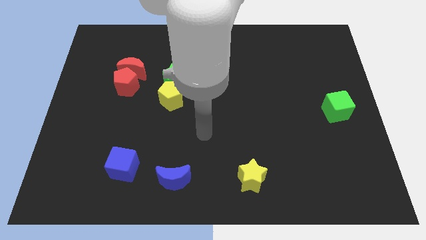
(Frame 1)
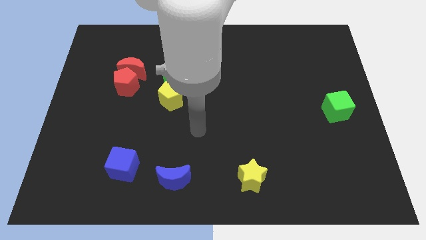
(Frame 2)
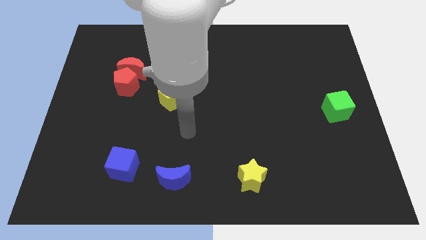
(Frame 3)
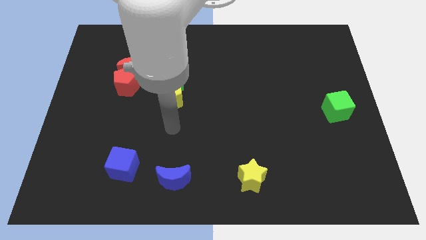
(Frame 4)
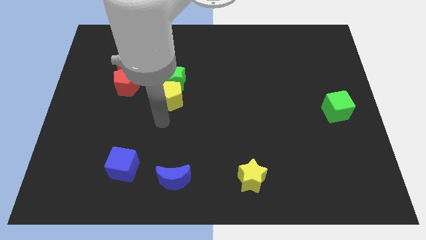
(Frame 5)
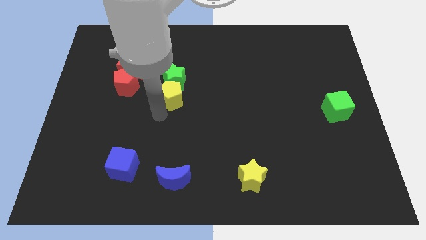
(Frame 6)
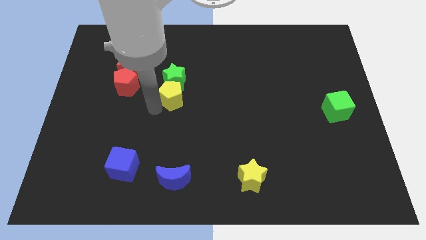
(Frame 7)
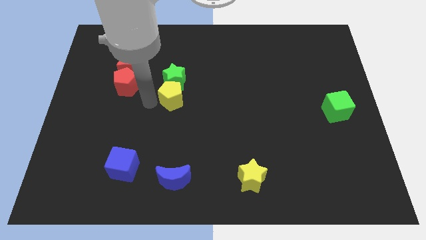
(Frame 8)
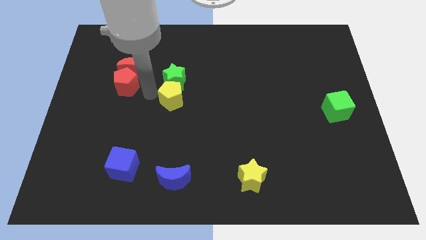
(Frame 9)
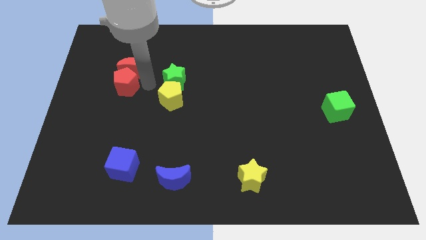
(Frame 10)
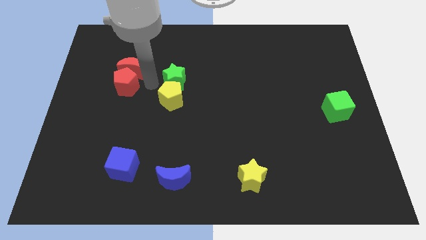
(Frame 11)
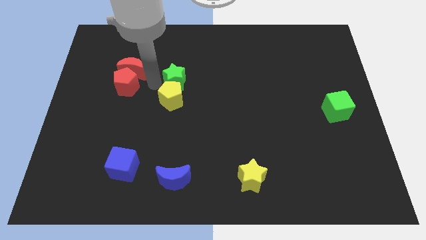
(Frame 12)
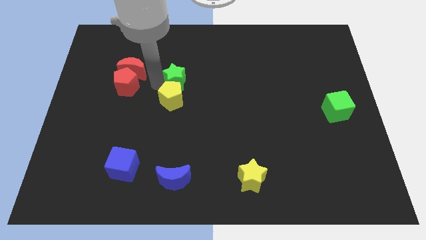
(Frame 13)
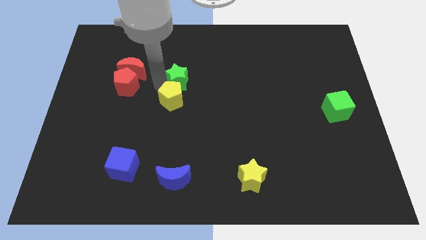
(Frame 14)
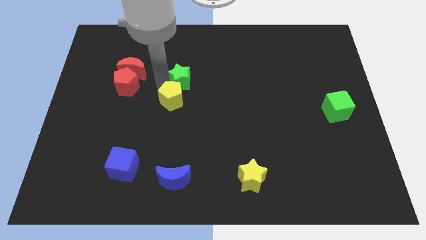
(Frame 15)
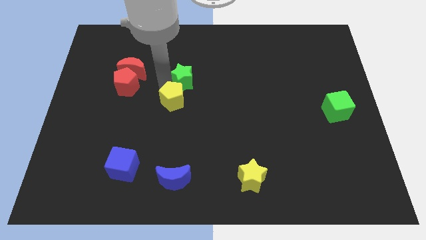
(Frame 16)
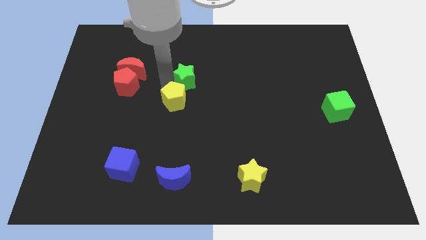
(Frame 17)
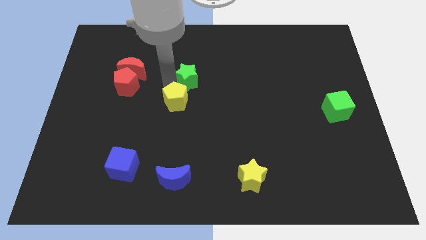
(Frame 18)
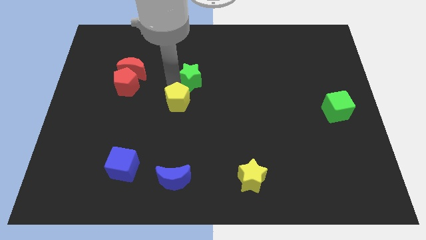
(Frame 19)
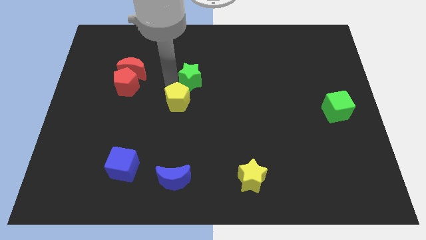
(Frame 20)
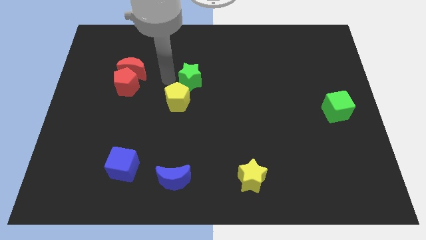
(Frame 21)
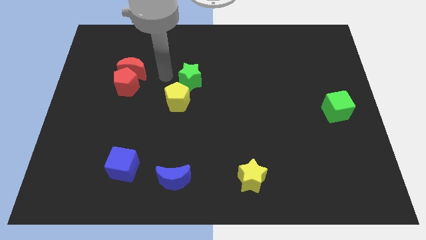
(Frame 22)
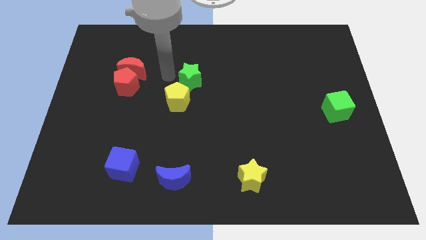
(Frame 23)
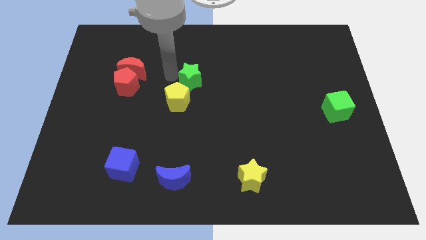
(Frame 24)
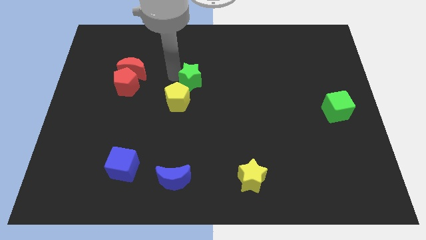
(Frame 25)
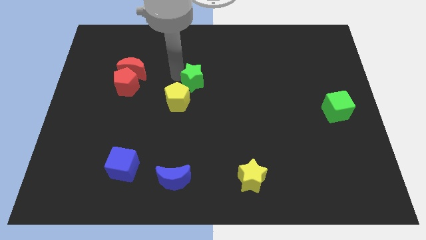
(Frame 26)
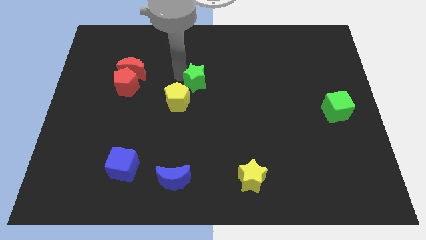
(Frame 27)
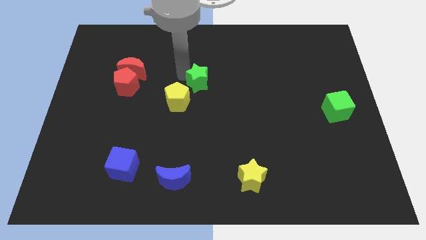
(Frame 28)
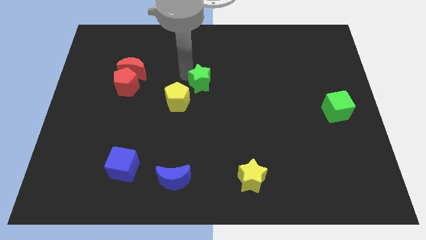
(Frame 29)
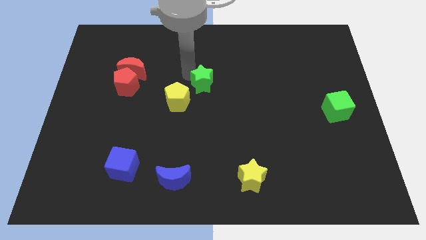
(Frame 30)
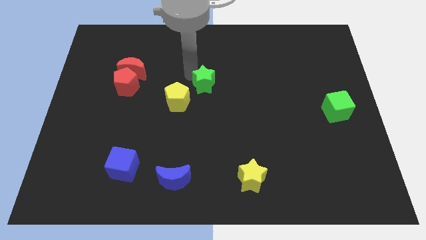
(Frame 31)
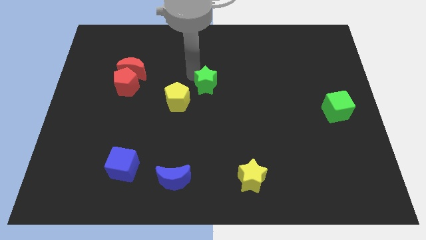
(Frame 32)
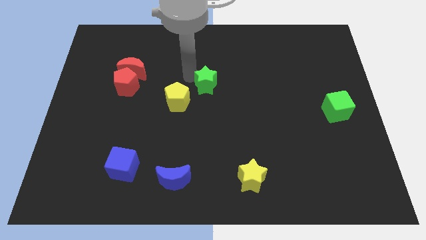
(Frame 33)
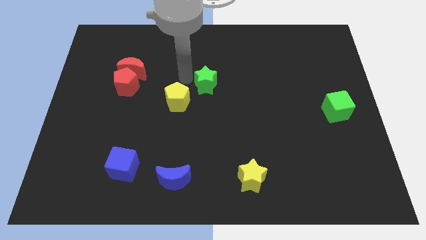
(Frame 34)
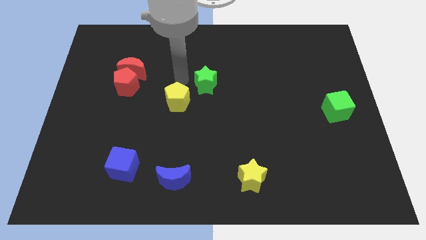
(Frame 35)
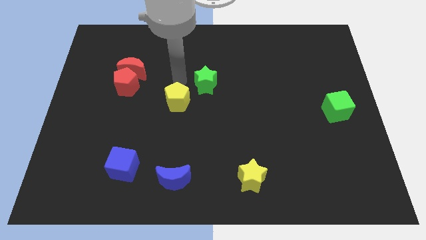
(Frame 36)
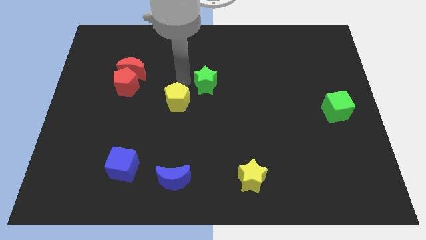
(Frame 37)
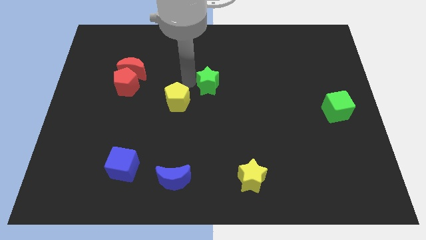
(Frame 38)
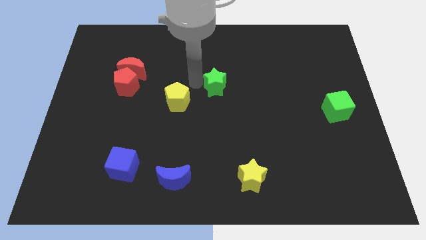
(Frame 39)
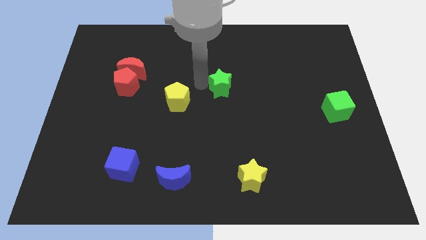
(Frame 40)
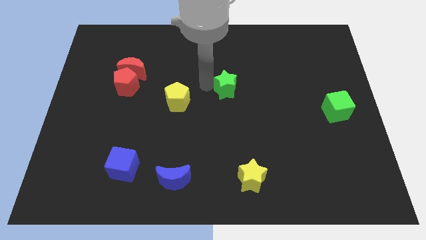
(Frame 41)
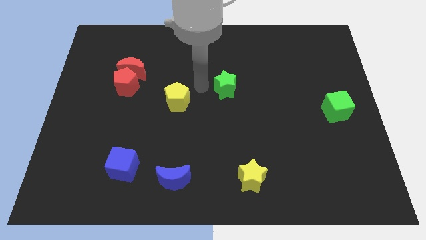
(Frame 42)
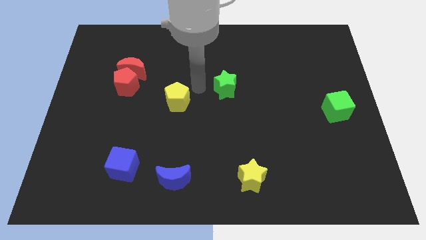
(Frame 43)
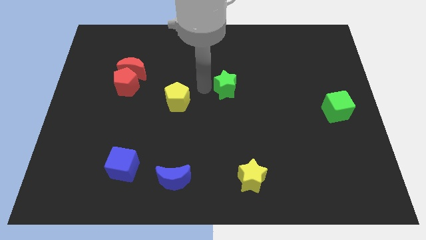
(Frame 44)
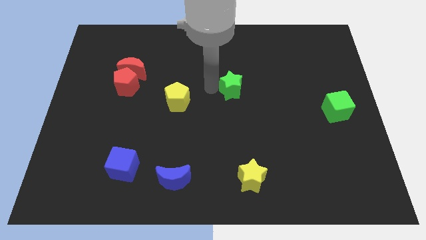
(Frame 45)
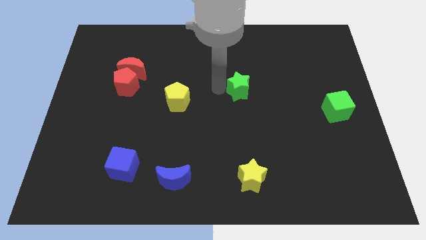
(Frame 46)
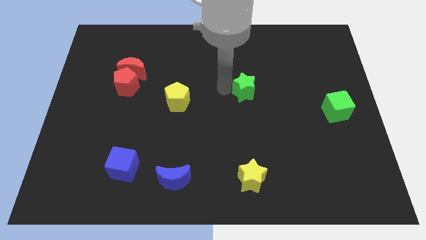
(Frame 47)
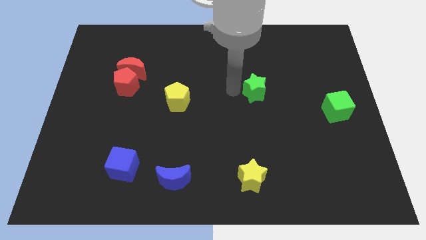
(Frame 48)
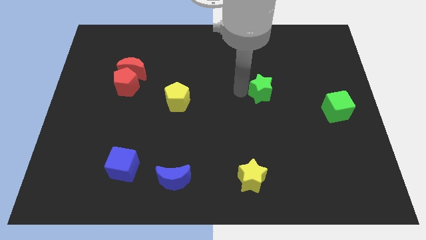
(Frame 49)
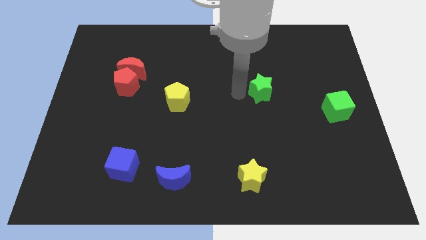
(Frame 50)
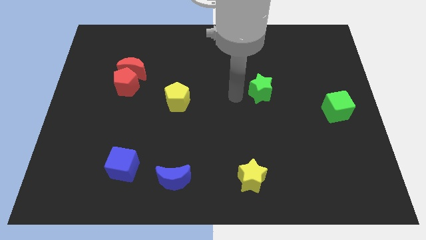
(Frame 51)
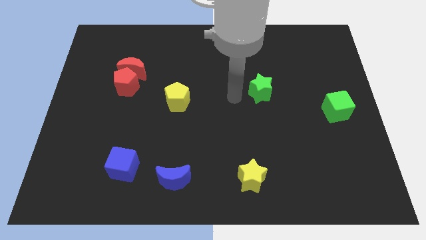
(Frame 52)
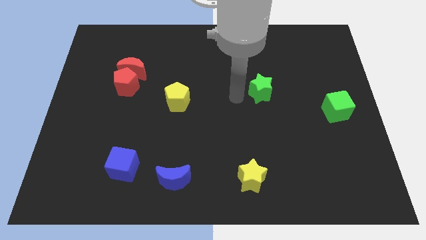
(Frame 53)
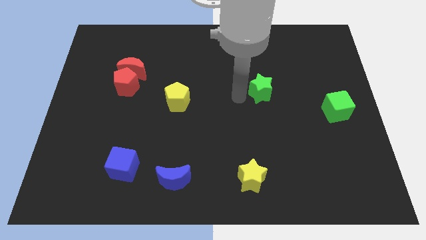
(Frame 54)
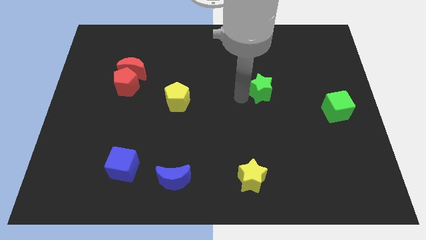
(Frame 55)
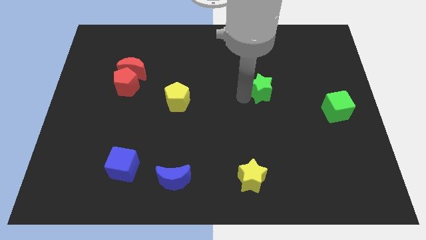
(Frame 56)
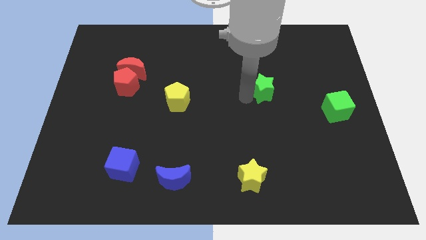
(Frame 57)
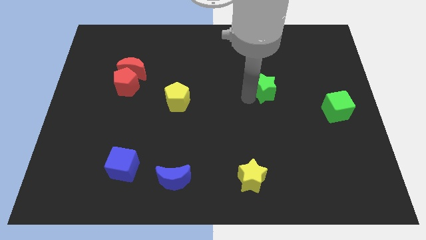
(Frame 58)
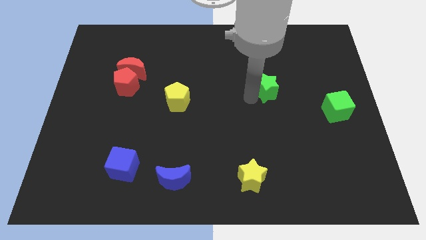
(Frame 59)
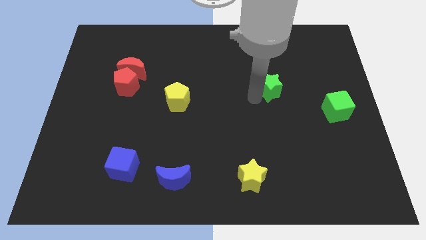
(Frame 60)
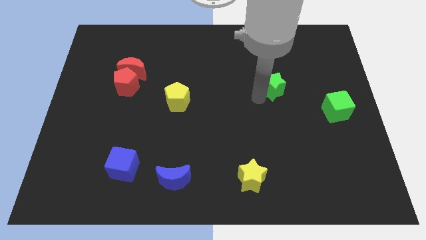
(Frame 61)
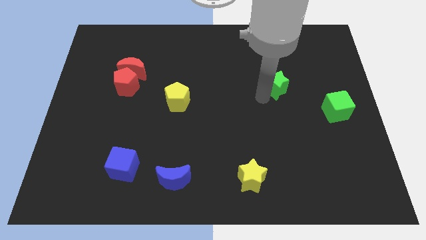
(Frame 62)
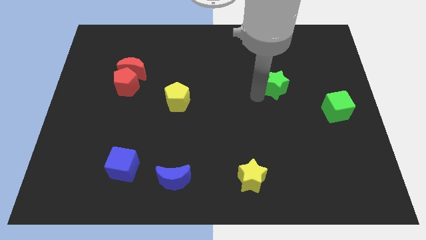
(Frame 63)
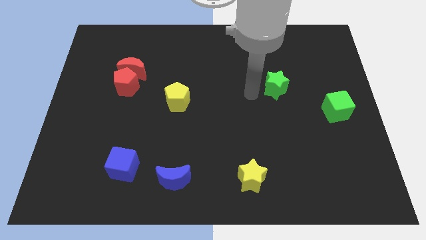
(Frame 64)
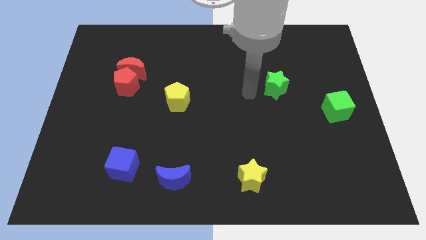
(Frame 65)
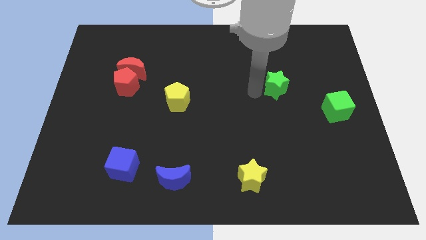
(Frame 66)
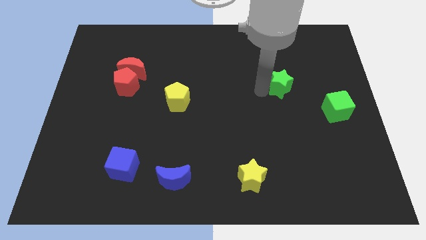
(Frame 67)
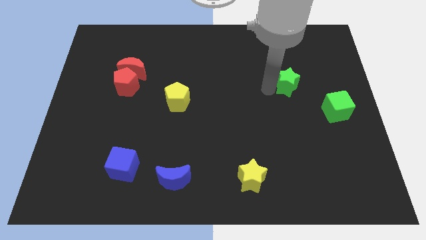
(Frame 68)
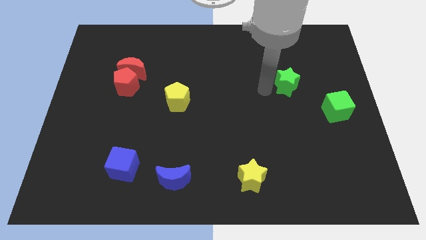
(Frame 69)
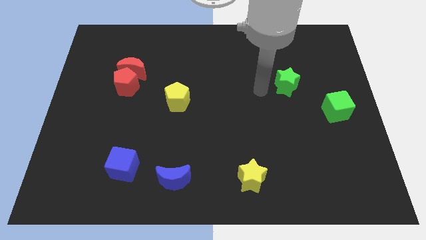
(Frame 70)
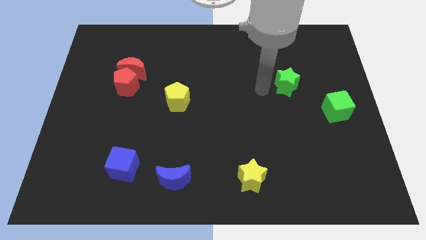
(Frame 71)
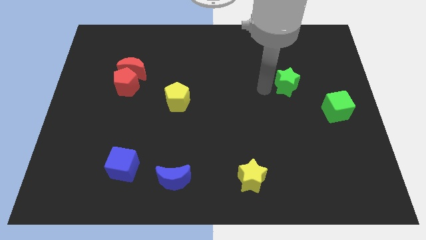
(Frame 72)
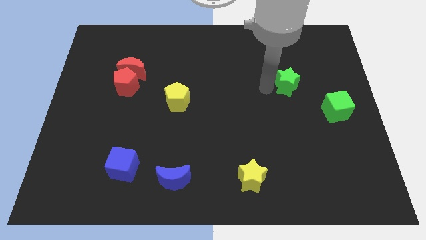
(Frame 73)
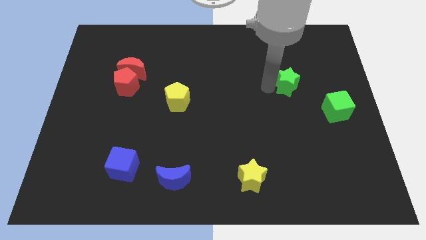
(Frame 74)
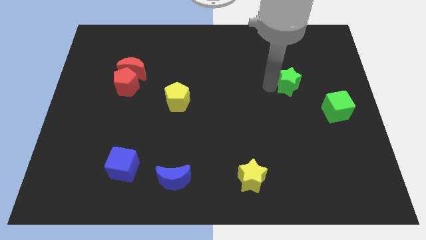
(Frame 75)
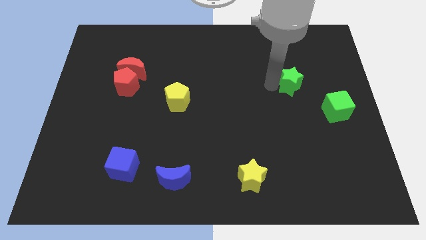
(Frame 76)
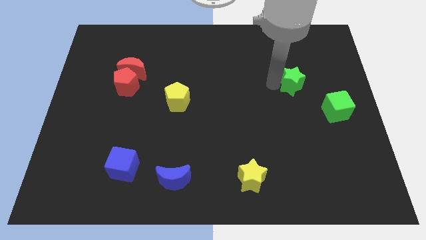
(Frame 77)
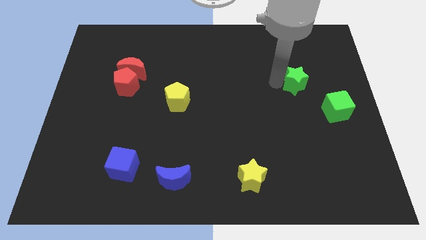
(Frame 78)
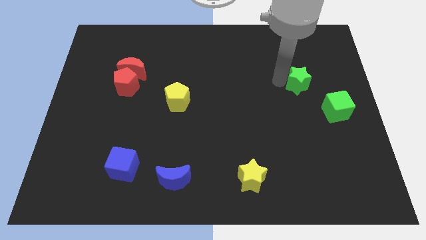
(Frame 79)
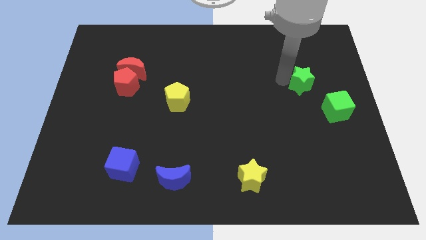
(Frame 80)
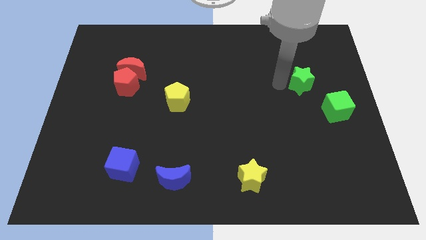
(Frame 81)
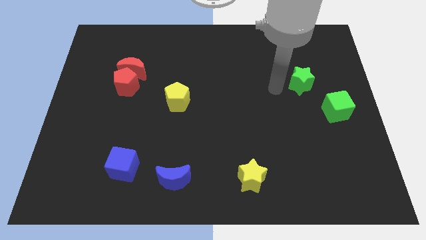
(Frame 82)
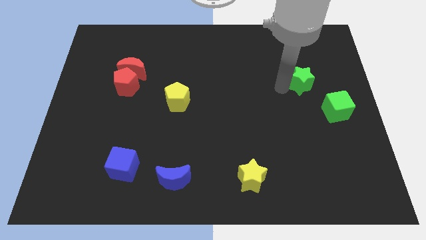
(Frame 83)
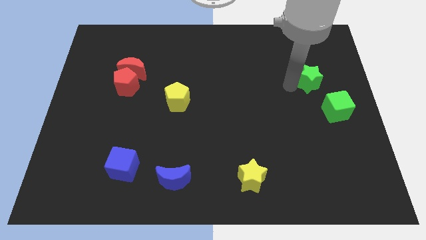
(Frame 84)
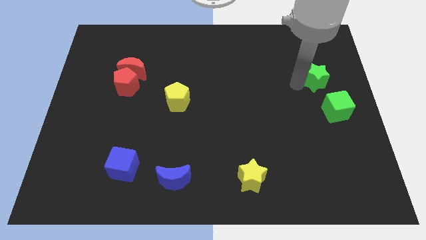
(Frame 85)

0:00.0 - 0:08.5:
push the green star above the green cube
